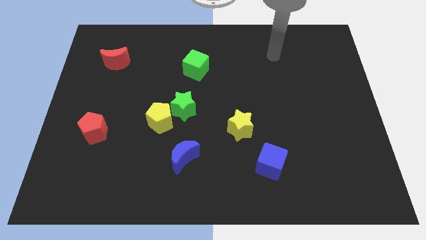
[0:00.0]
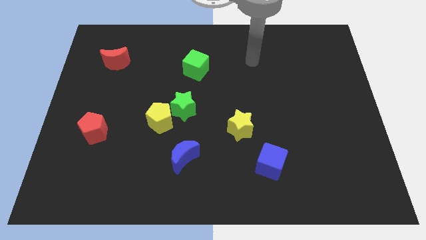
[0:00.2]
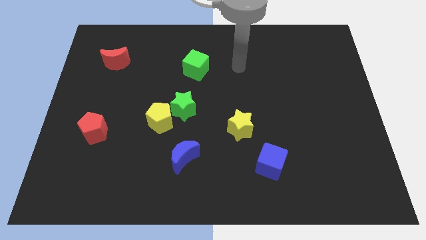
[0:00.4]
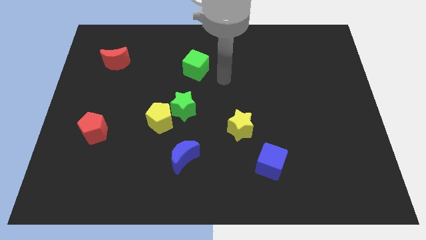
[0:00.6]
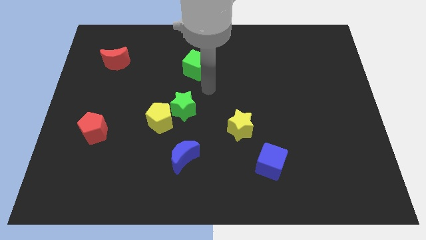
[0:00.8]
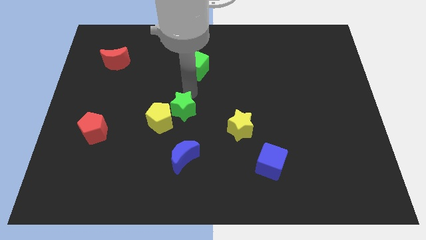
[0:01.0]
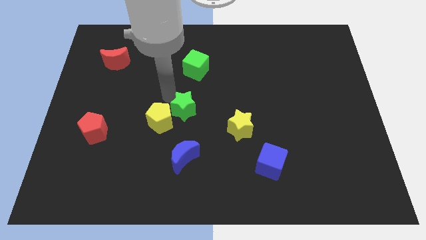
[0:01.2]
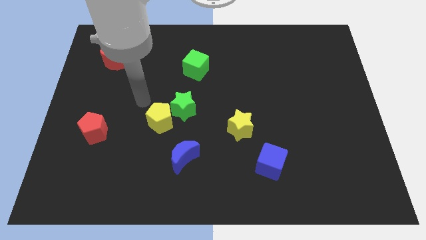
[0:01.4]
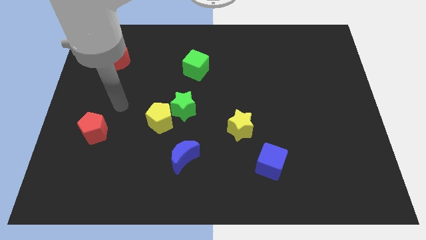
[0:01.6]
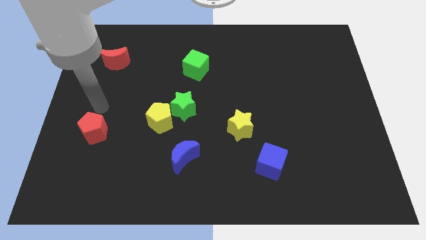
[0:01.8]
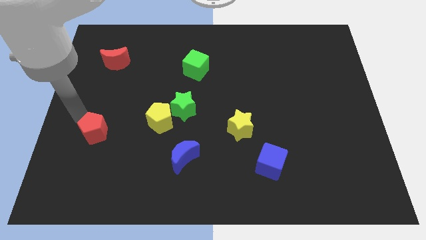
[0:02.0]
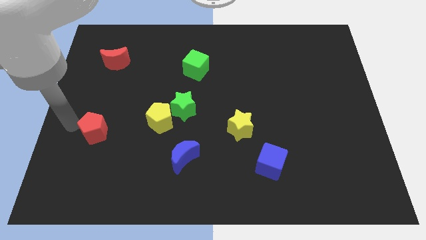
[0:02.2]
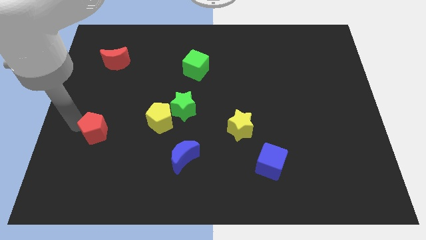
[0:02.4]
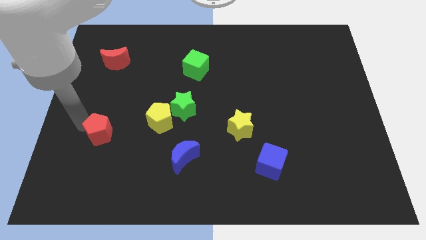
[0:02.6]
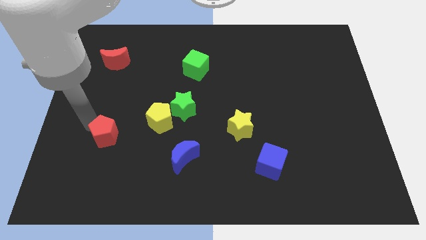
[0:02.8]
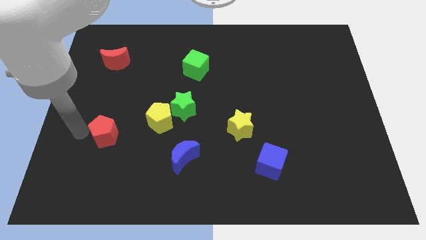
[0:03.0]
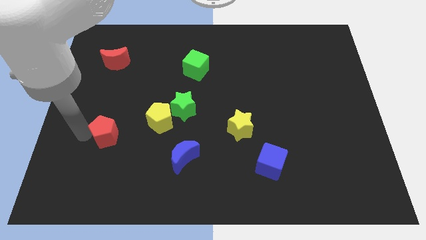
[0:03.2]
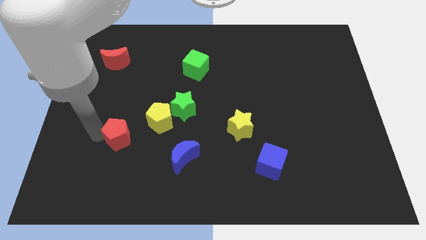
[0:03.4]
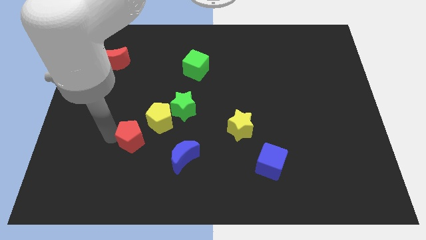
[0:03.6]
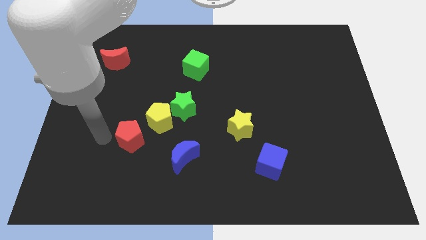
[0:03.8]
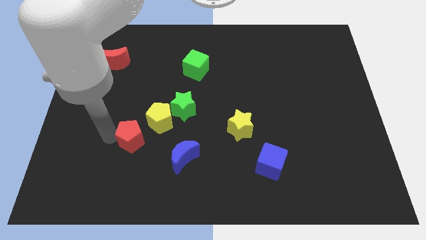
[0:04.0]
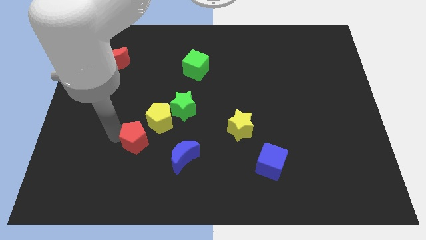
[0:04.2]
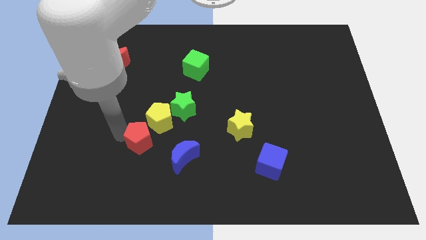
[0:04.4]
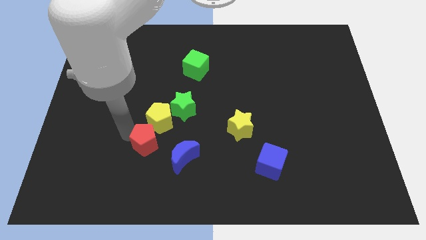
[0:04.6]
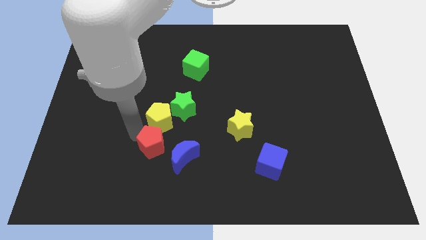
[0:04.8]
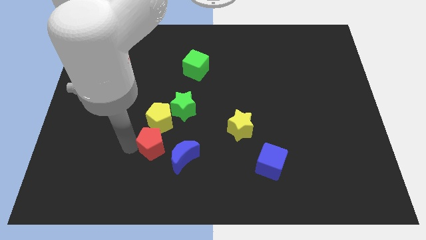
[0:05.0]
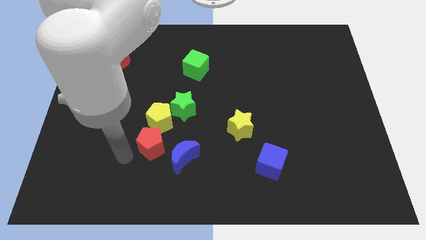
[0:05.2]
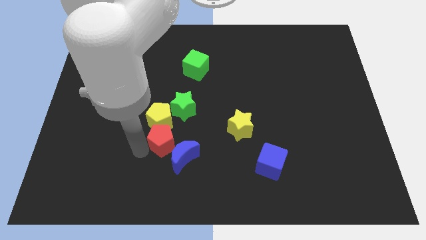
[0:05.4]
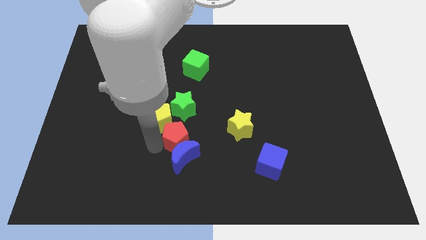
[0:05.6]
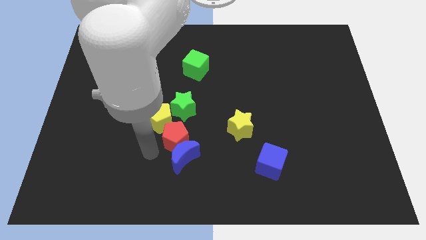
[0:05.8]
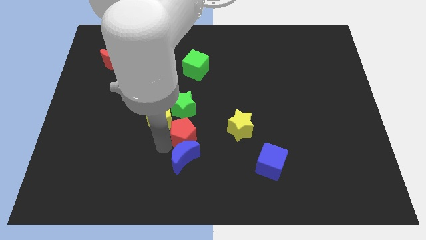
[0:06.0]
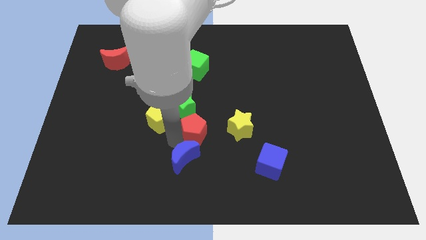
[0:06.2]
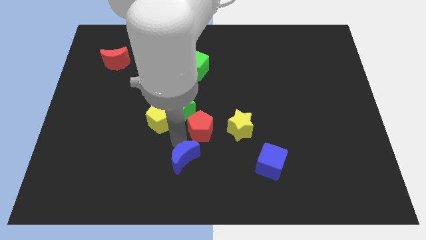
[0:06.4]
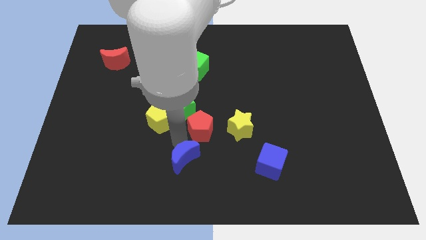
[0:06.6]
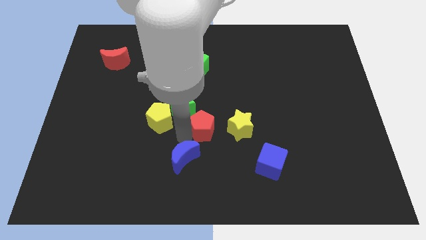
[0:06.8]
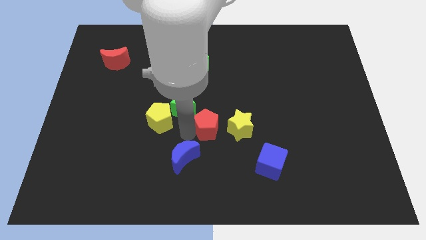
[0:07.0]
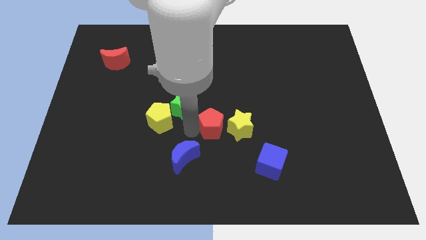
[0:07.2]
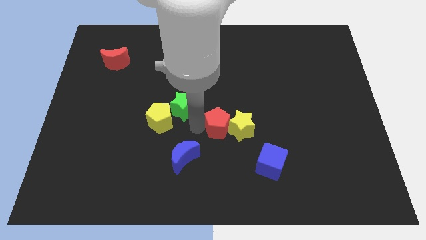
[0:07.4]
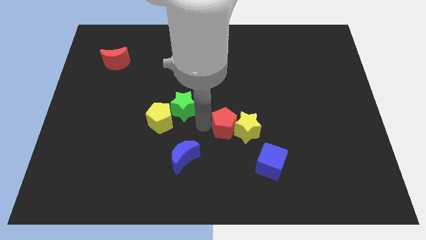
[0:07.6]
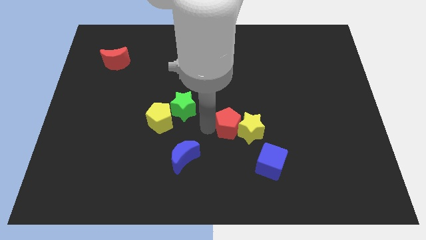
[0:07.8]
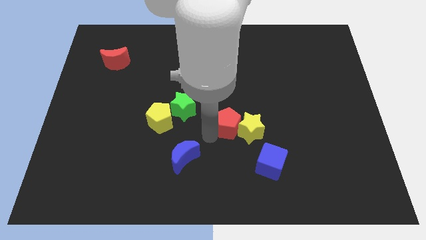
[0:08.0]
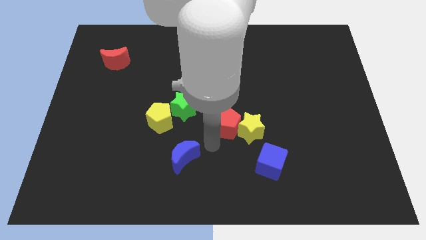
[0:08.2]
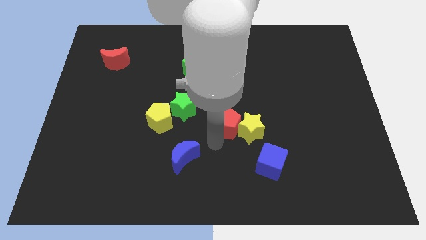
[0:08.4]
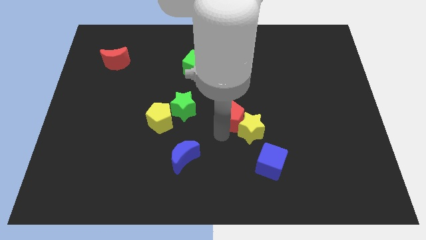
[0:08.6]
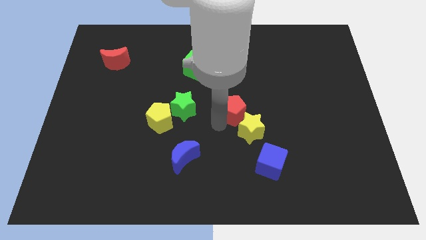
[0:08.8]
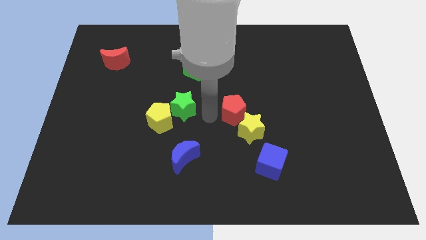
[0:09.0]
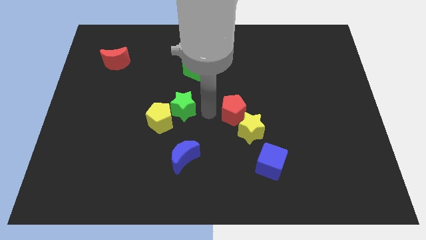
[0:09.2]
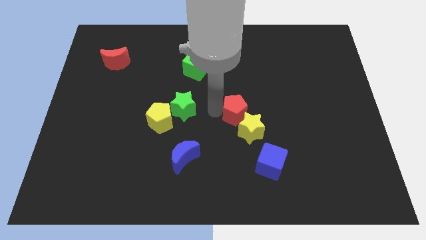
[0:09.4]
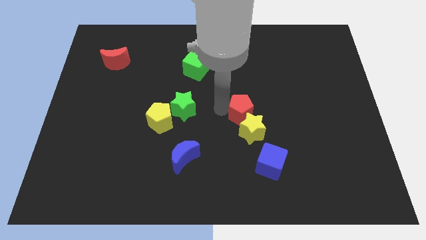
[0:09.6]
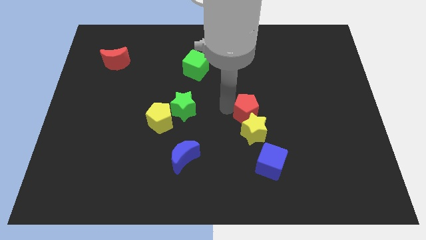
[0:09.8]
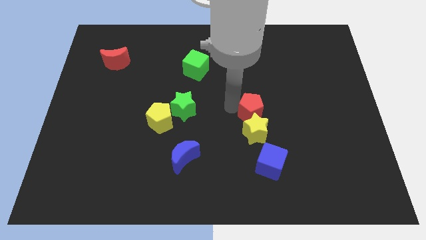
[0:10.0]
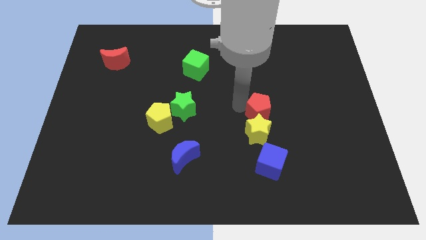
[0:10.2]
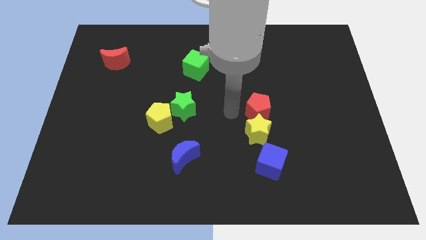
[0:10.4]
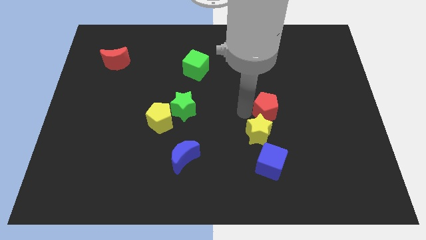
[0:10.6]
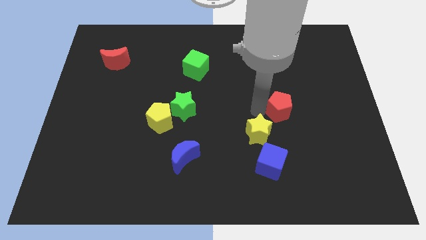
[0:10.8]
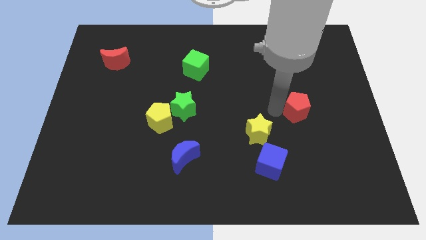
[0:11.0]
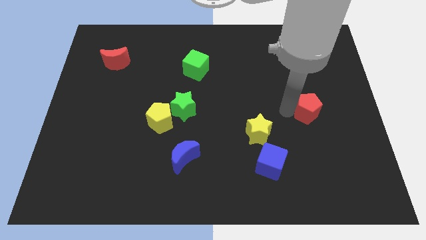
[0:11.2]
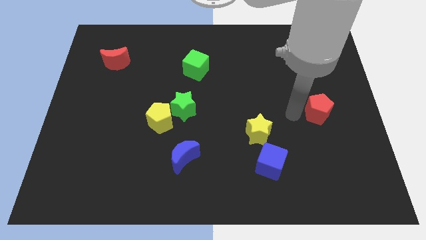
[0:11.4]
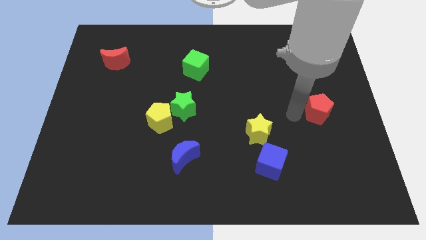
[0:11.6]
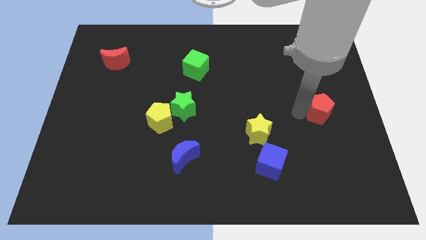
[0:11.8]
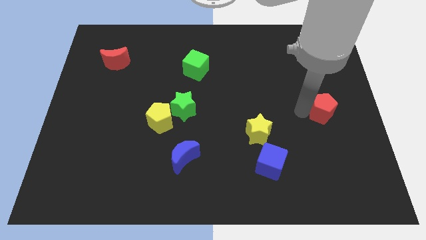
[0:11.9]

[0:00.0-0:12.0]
move the red pentagon to the center right
